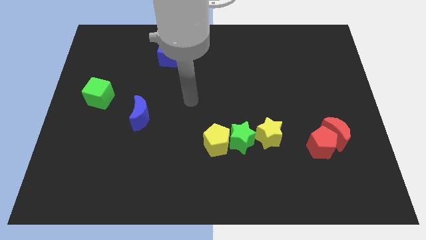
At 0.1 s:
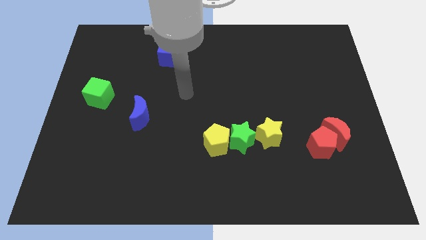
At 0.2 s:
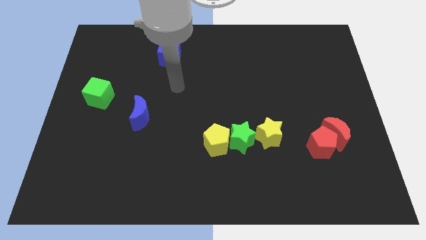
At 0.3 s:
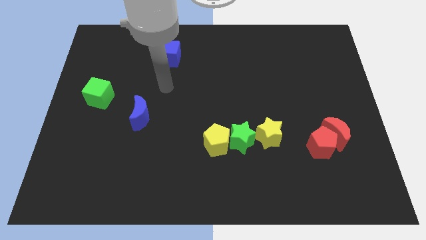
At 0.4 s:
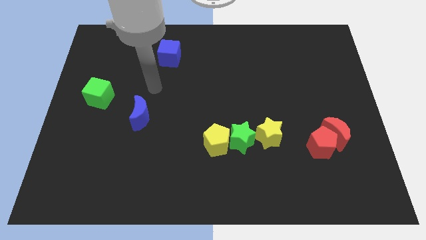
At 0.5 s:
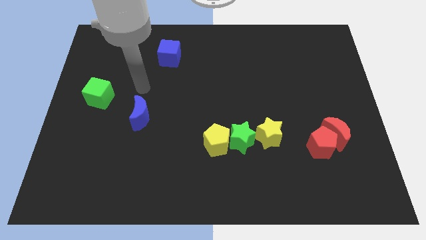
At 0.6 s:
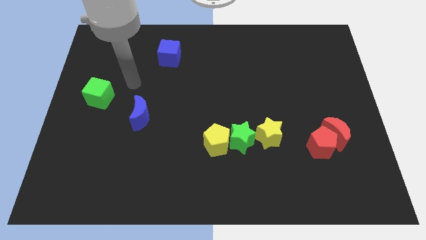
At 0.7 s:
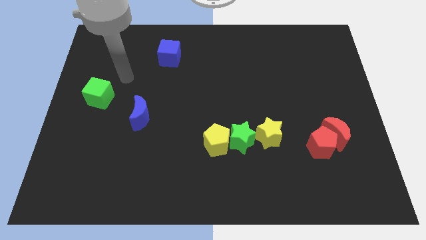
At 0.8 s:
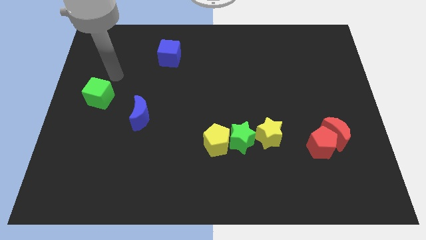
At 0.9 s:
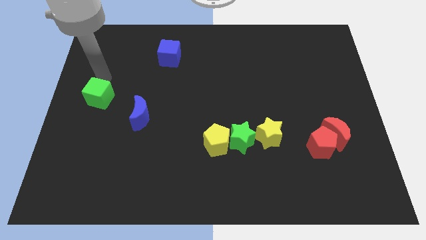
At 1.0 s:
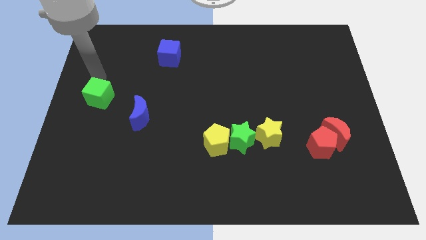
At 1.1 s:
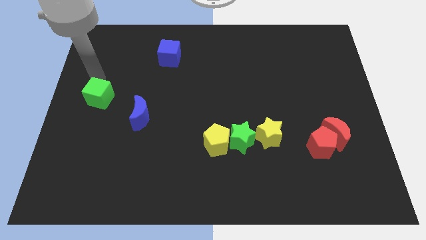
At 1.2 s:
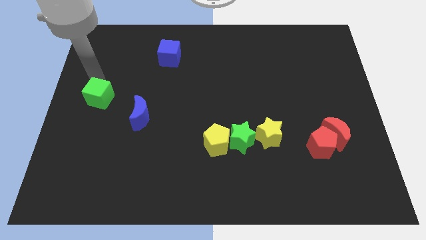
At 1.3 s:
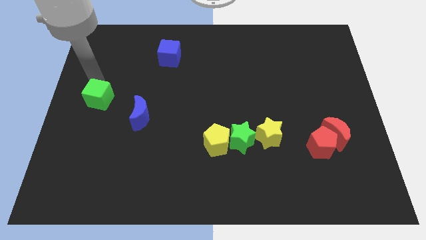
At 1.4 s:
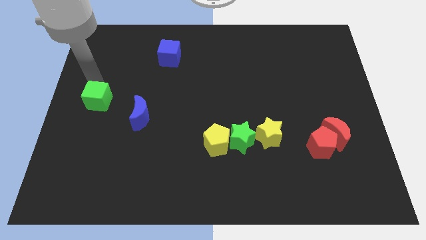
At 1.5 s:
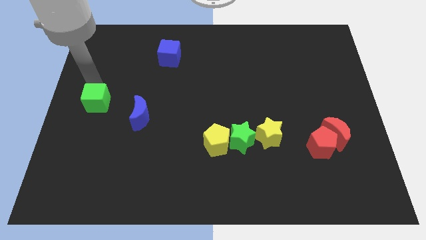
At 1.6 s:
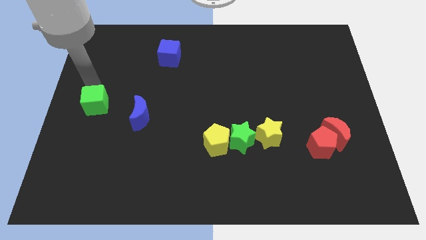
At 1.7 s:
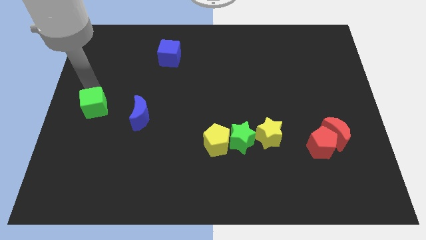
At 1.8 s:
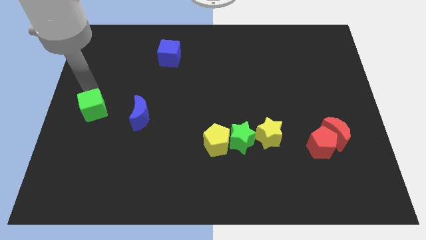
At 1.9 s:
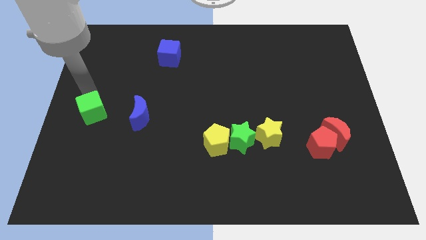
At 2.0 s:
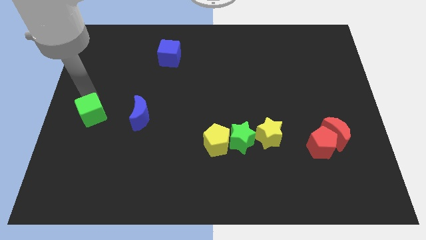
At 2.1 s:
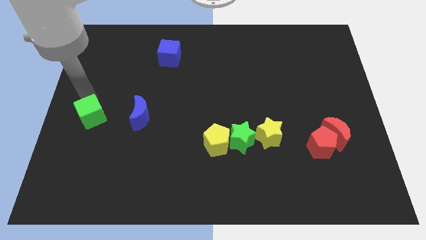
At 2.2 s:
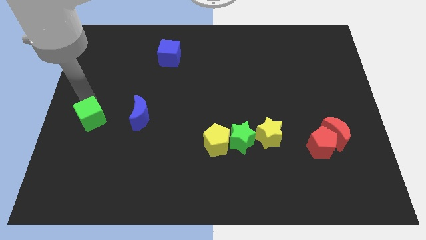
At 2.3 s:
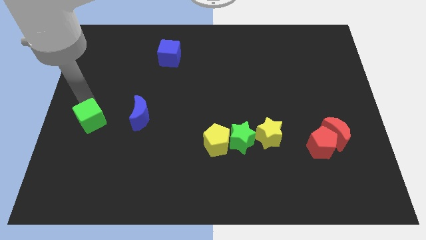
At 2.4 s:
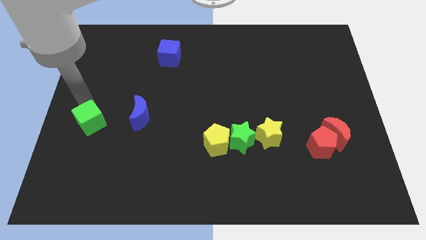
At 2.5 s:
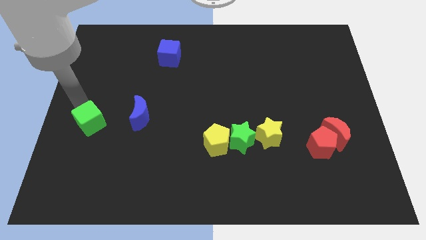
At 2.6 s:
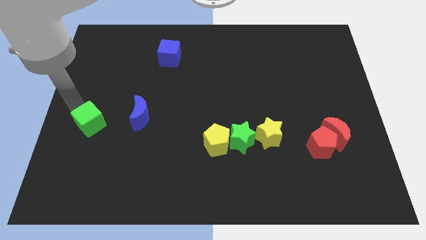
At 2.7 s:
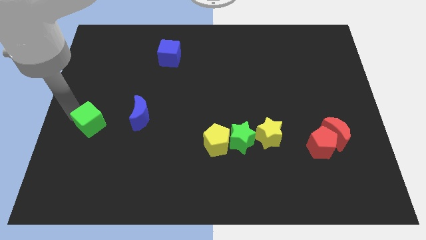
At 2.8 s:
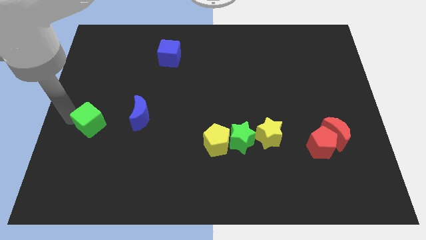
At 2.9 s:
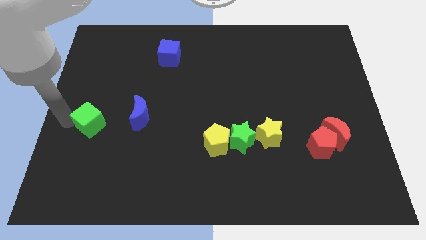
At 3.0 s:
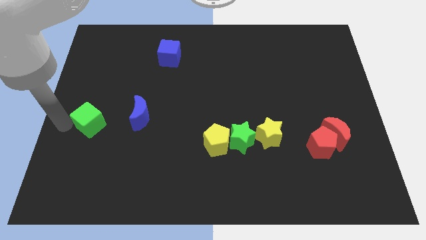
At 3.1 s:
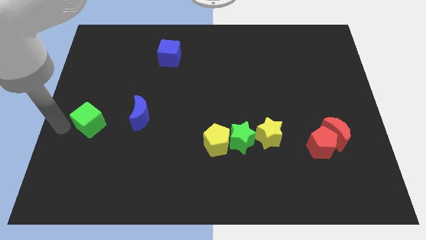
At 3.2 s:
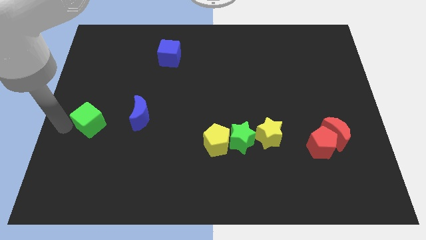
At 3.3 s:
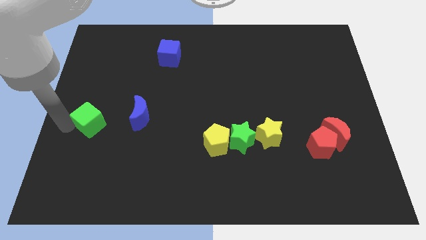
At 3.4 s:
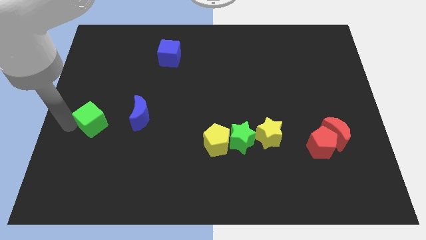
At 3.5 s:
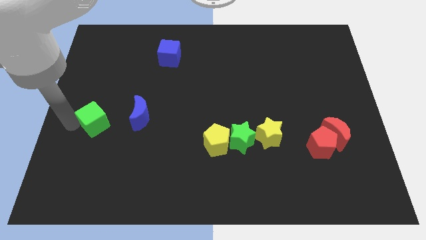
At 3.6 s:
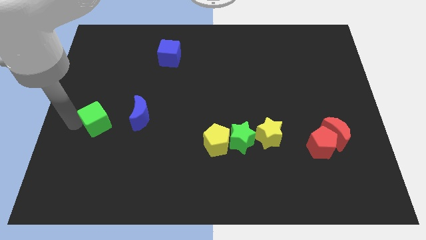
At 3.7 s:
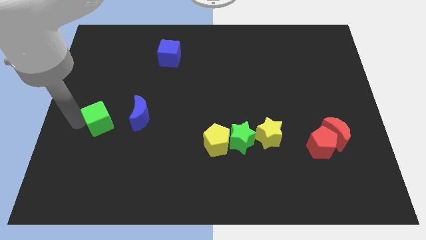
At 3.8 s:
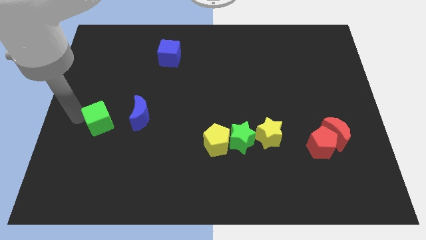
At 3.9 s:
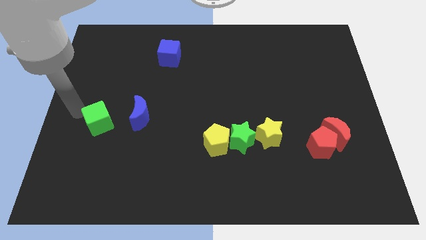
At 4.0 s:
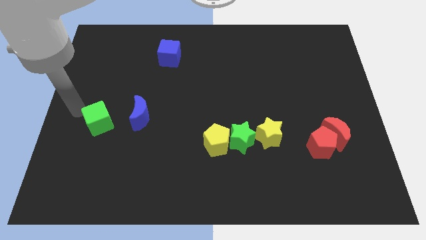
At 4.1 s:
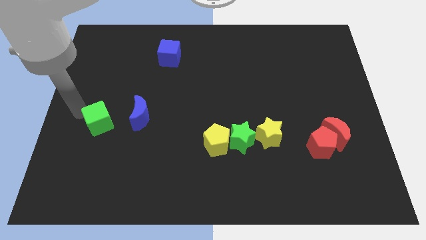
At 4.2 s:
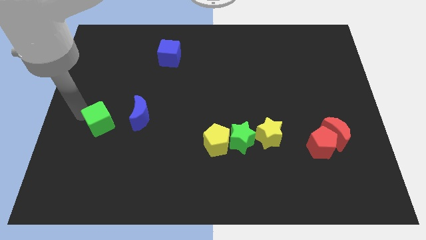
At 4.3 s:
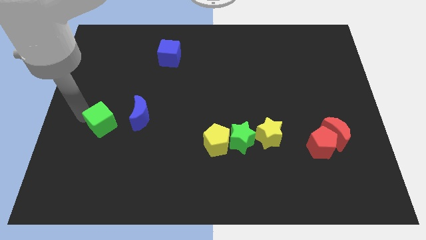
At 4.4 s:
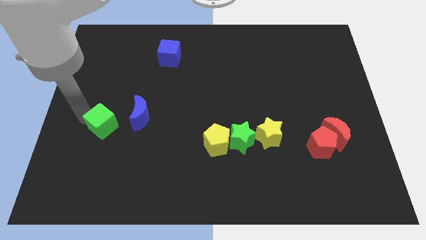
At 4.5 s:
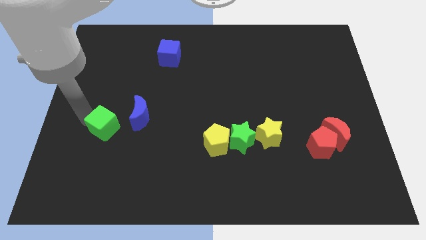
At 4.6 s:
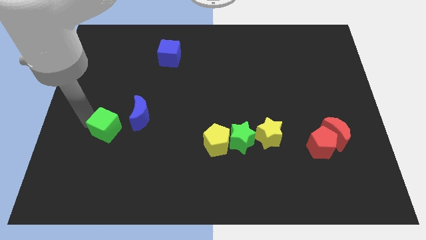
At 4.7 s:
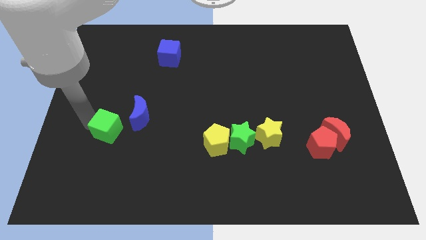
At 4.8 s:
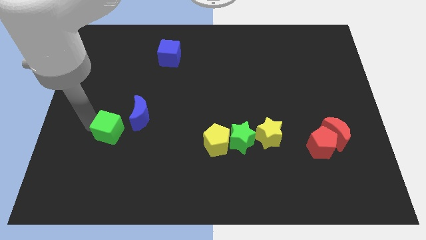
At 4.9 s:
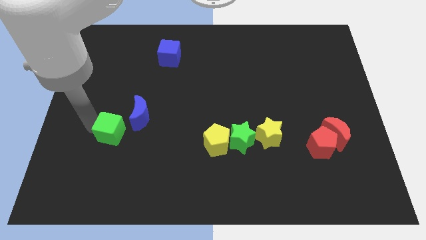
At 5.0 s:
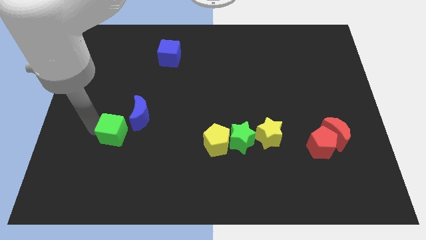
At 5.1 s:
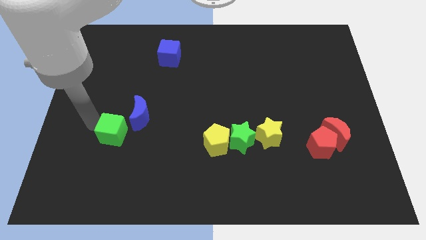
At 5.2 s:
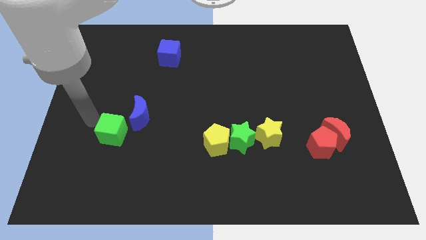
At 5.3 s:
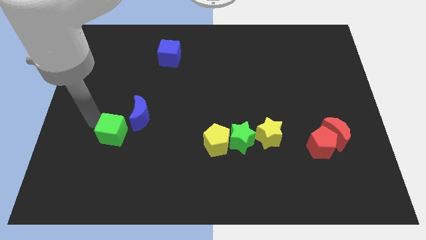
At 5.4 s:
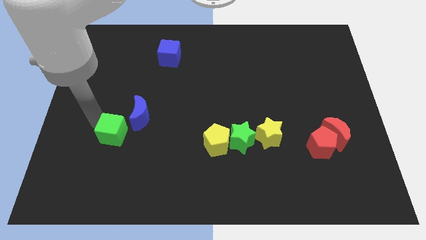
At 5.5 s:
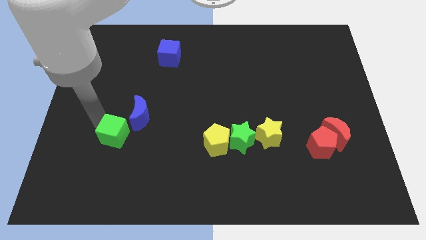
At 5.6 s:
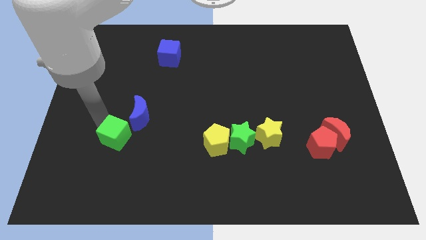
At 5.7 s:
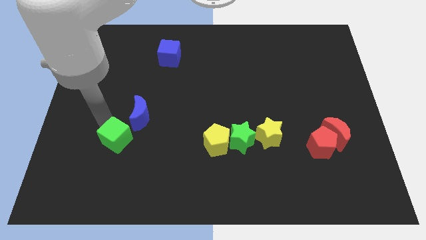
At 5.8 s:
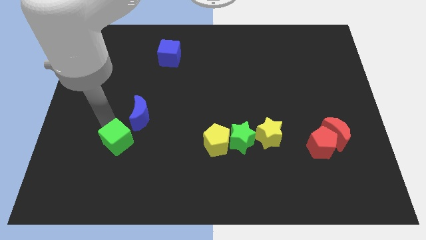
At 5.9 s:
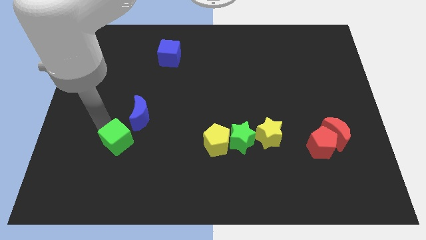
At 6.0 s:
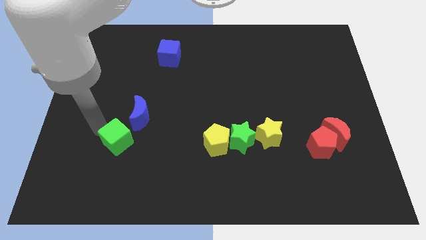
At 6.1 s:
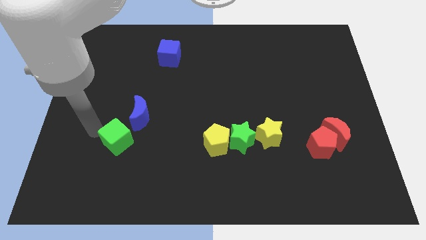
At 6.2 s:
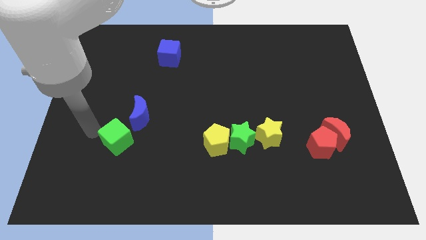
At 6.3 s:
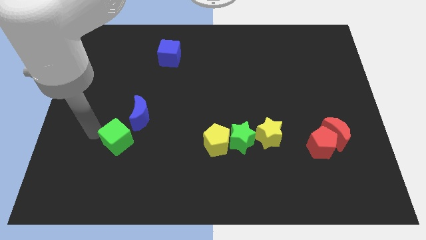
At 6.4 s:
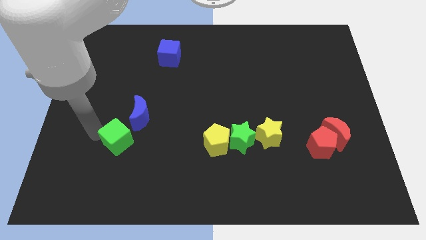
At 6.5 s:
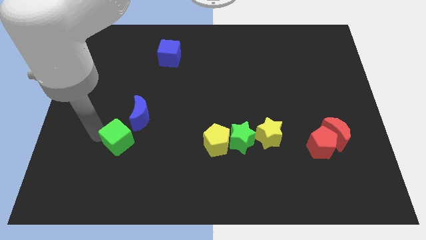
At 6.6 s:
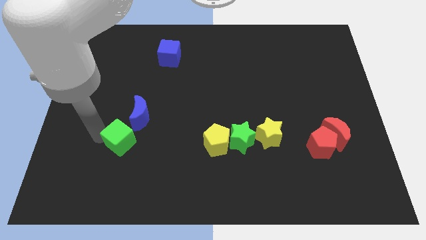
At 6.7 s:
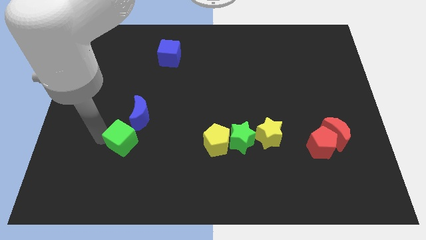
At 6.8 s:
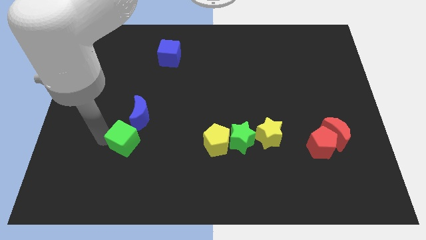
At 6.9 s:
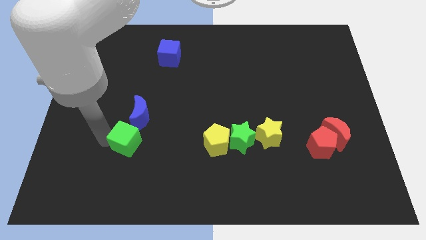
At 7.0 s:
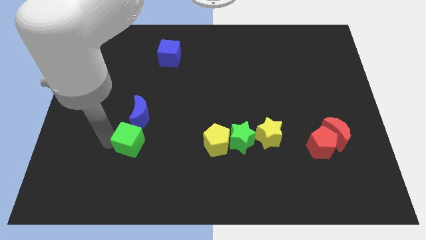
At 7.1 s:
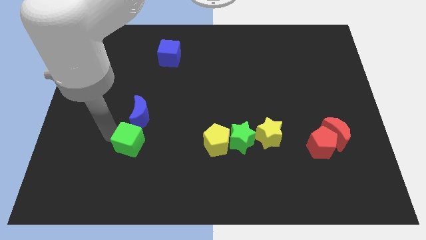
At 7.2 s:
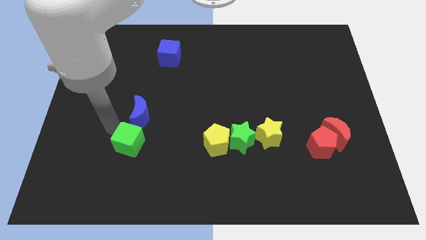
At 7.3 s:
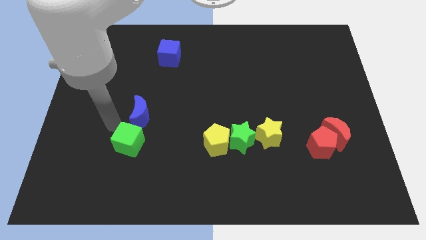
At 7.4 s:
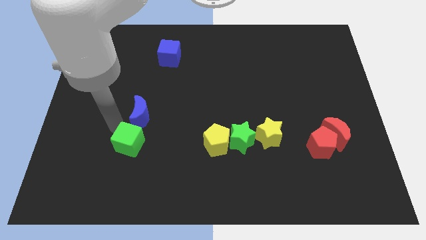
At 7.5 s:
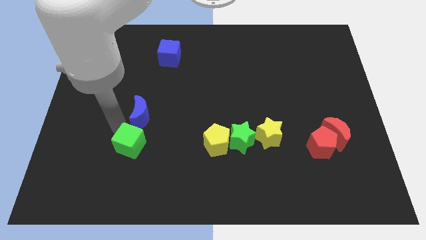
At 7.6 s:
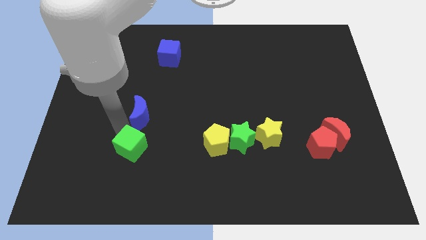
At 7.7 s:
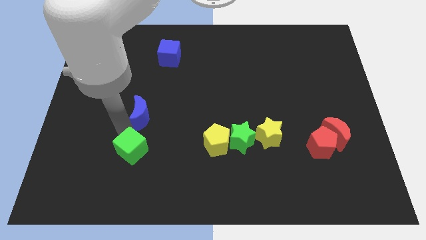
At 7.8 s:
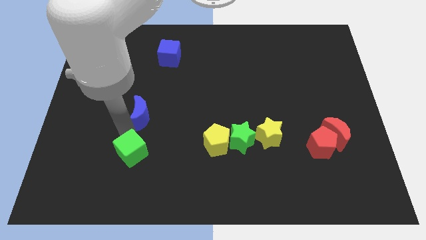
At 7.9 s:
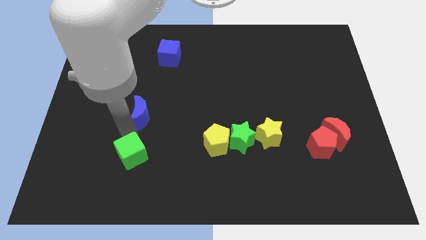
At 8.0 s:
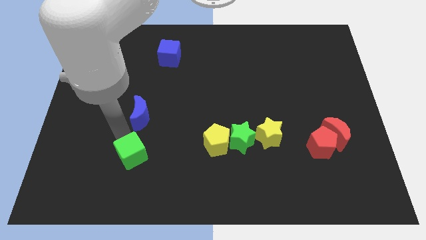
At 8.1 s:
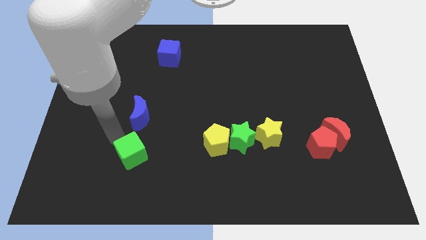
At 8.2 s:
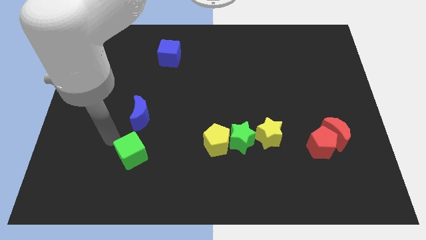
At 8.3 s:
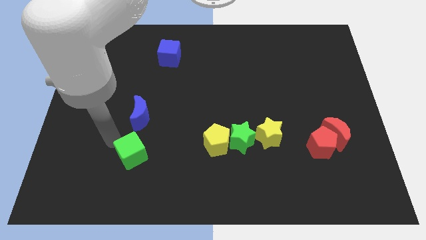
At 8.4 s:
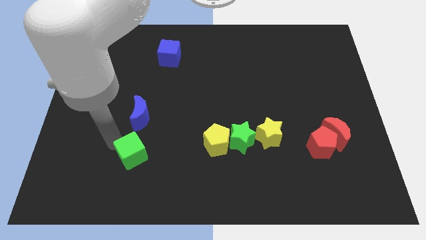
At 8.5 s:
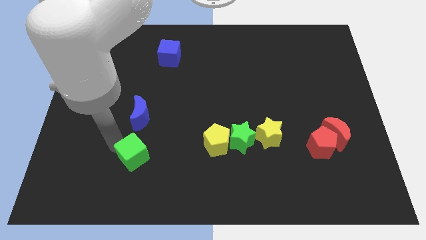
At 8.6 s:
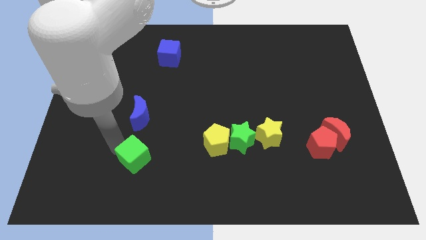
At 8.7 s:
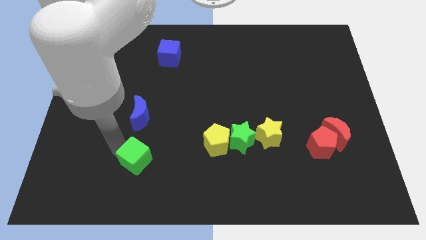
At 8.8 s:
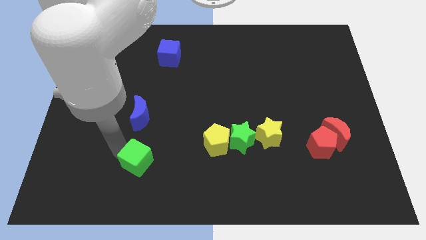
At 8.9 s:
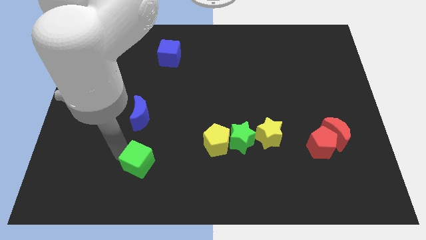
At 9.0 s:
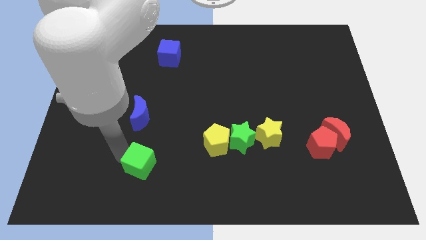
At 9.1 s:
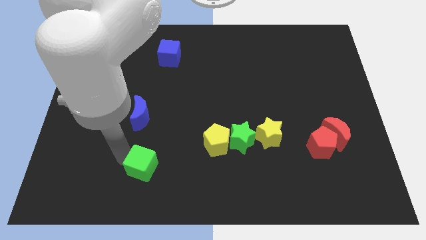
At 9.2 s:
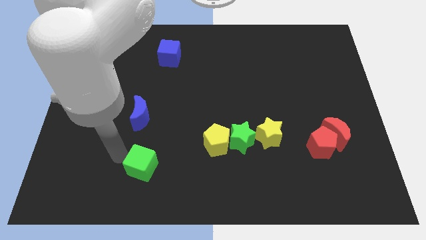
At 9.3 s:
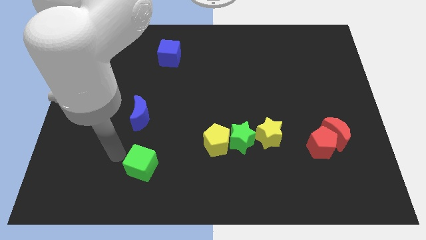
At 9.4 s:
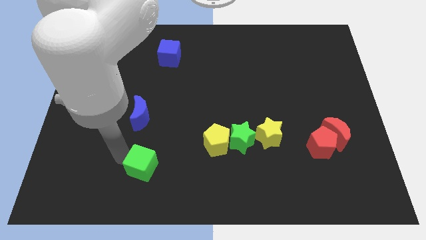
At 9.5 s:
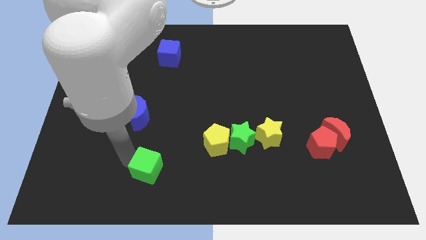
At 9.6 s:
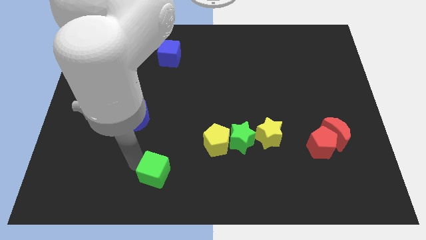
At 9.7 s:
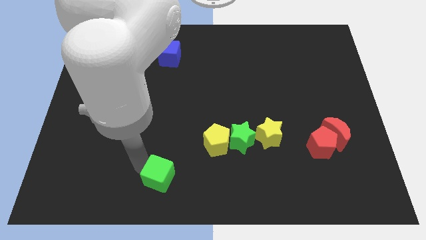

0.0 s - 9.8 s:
push the green cube to the bottom side
